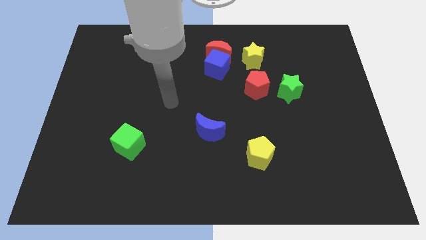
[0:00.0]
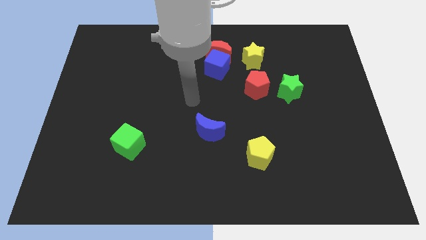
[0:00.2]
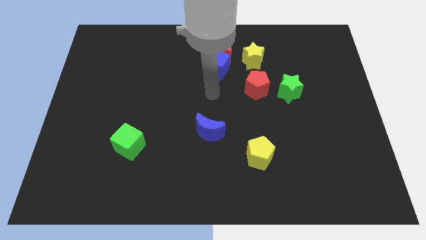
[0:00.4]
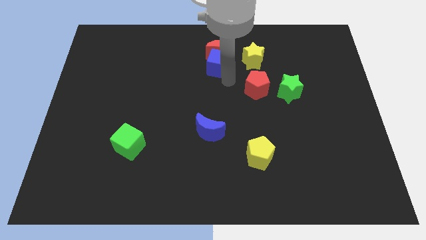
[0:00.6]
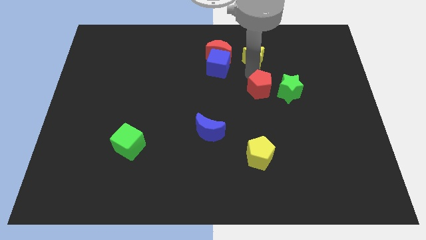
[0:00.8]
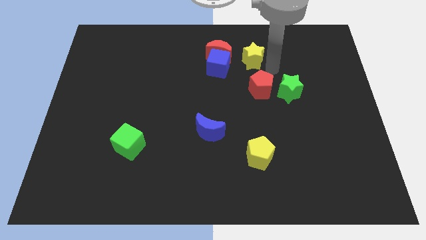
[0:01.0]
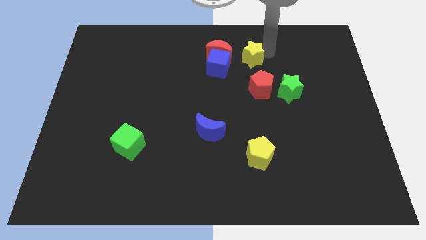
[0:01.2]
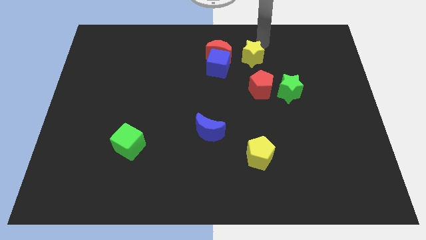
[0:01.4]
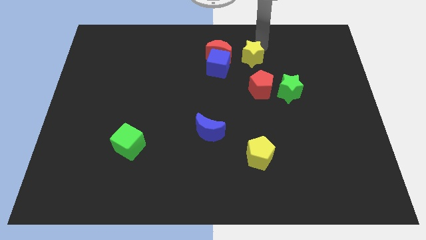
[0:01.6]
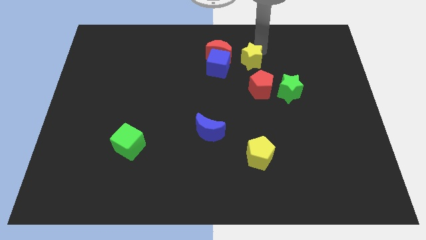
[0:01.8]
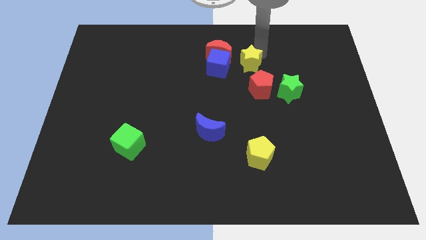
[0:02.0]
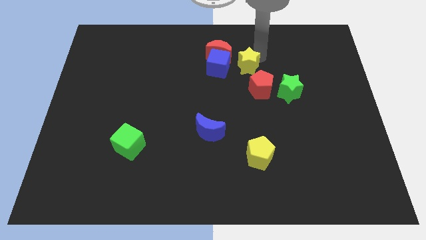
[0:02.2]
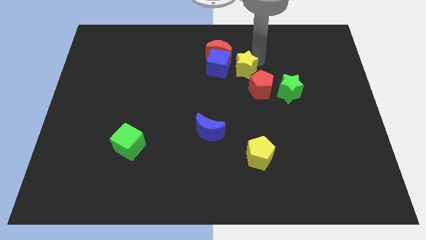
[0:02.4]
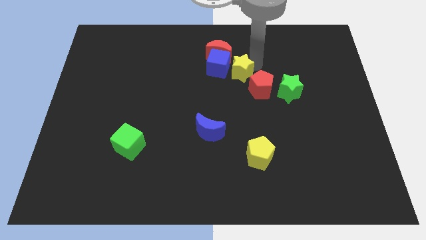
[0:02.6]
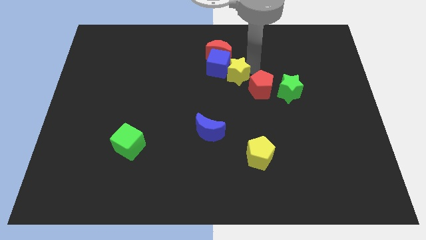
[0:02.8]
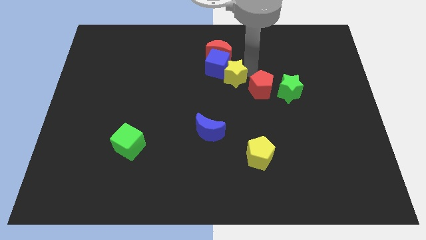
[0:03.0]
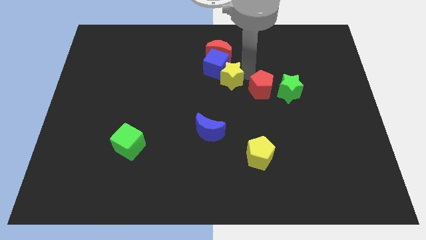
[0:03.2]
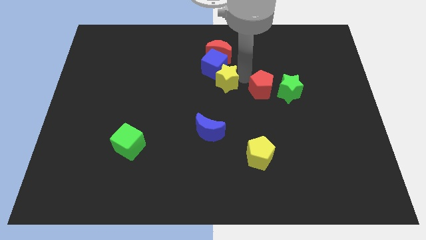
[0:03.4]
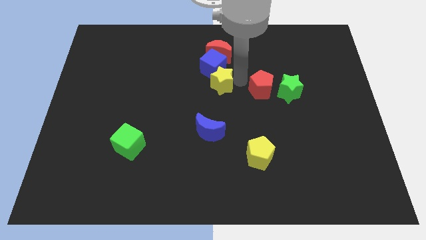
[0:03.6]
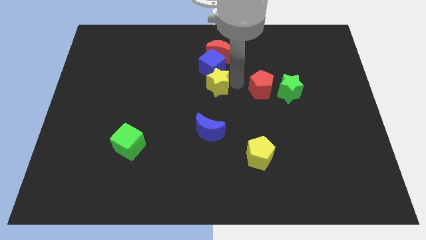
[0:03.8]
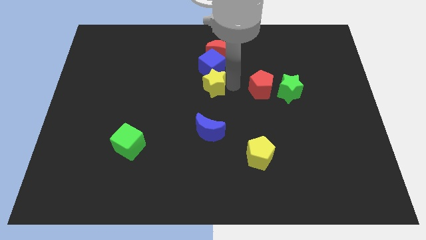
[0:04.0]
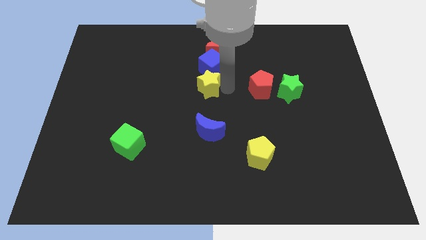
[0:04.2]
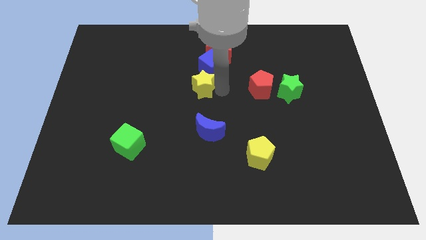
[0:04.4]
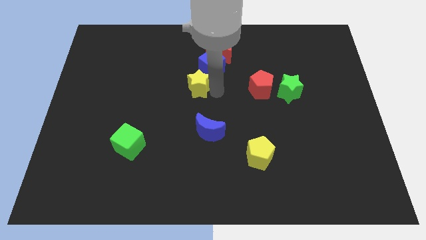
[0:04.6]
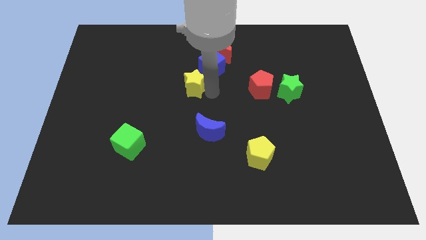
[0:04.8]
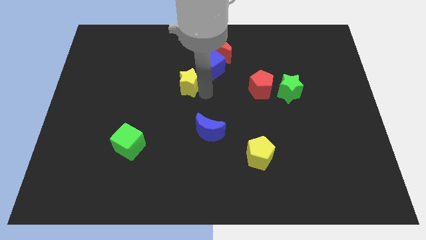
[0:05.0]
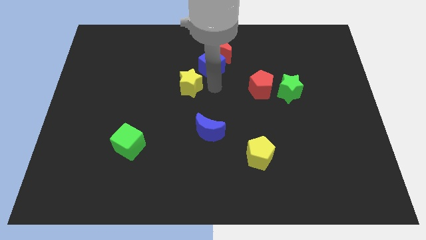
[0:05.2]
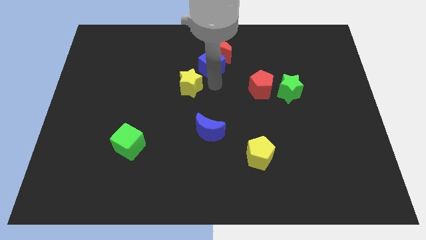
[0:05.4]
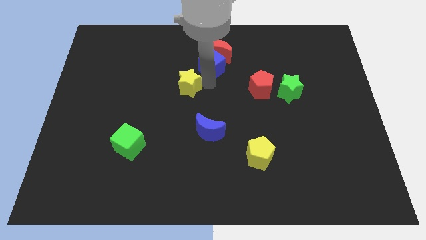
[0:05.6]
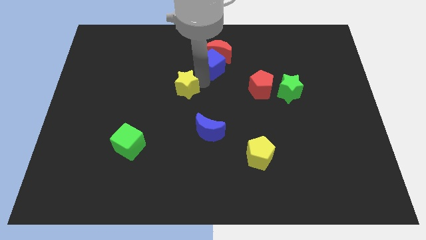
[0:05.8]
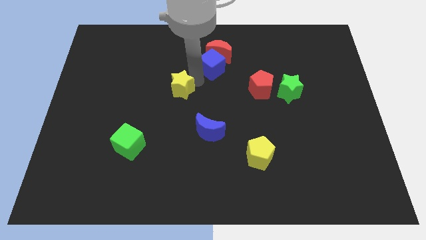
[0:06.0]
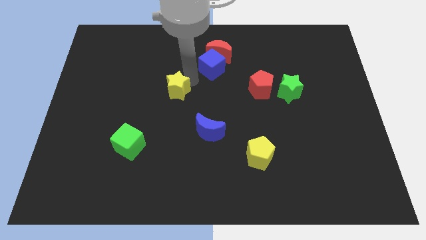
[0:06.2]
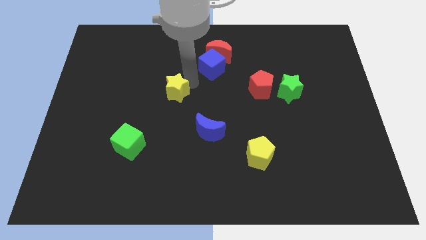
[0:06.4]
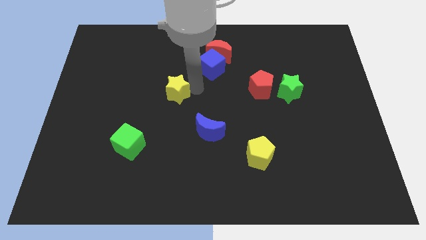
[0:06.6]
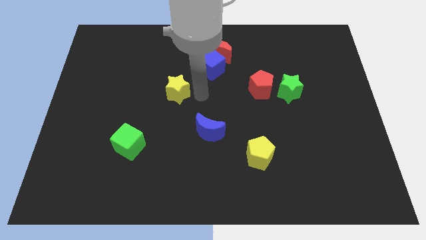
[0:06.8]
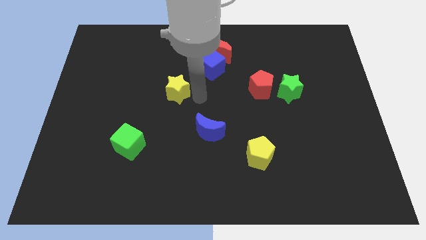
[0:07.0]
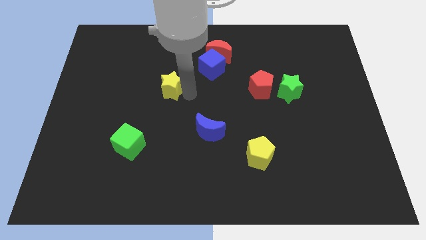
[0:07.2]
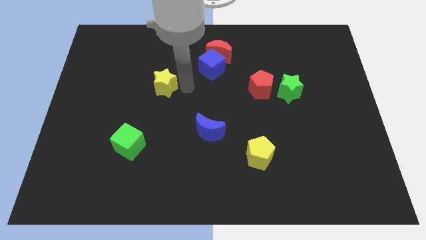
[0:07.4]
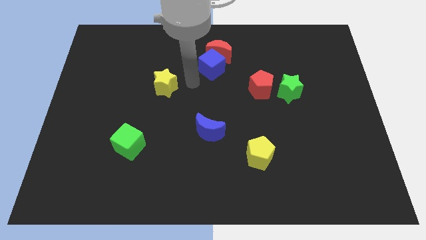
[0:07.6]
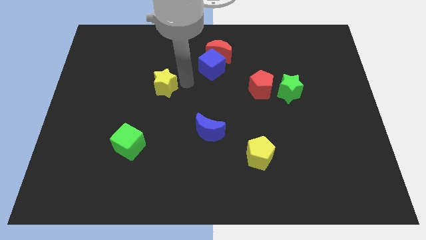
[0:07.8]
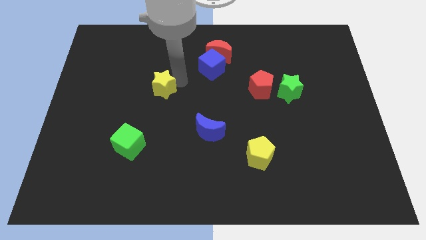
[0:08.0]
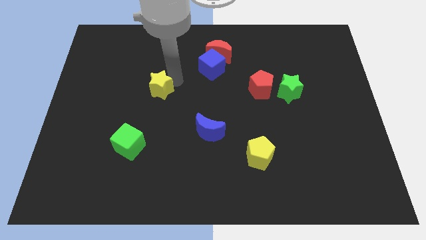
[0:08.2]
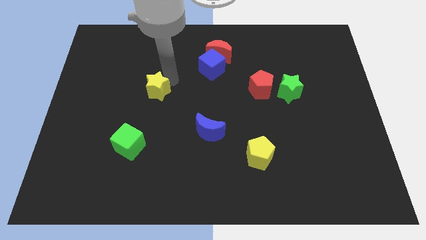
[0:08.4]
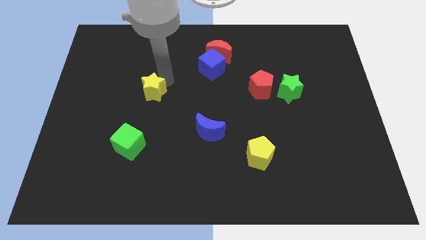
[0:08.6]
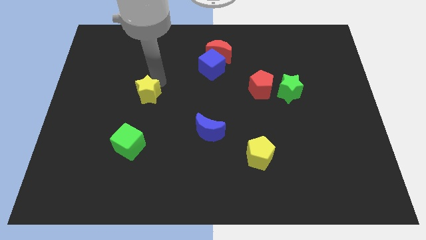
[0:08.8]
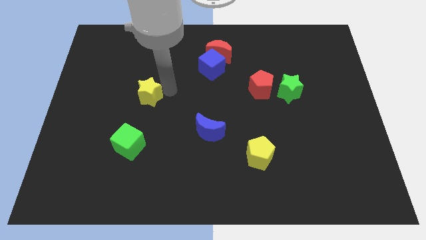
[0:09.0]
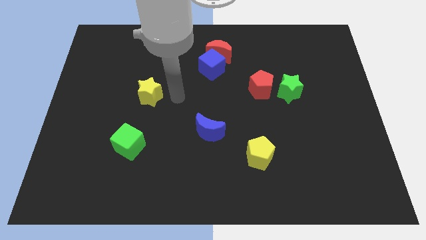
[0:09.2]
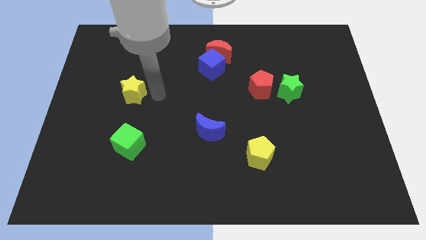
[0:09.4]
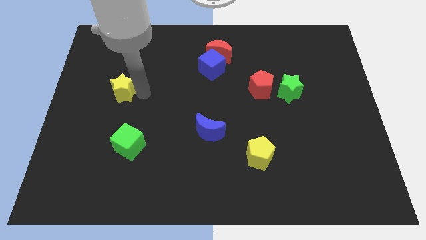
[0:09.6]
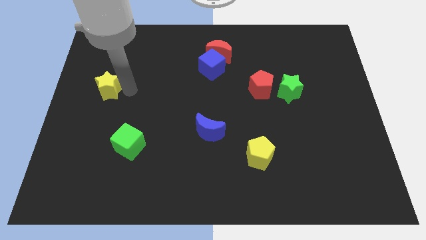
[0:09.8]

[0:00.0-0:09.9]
put the yellow star to the left side
